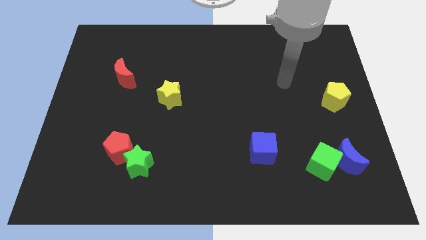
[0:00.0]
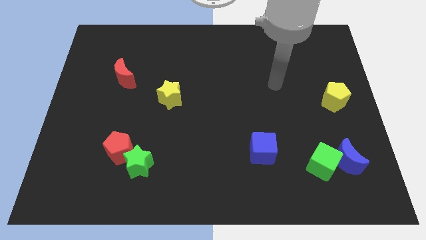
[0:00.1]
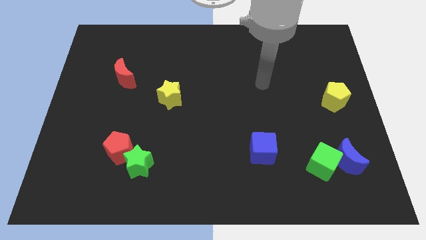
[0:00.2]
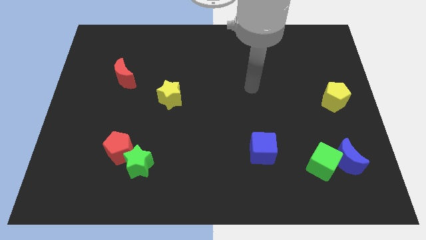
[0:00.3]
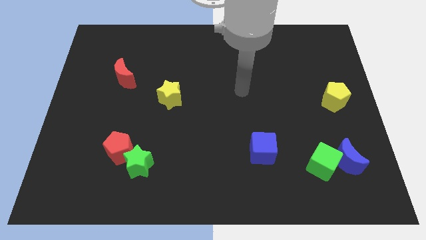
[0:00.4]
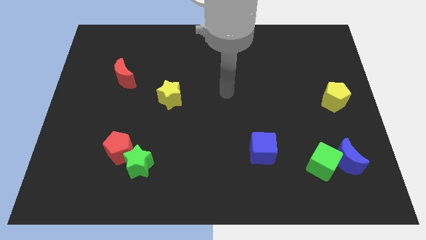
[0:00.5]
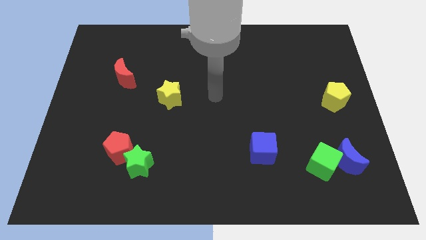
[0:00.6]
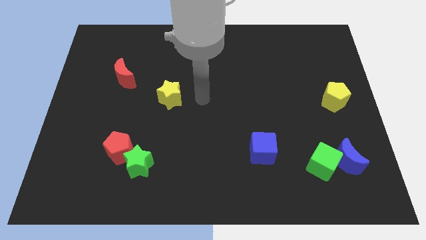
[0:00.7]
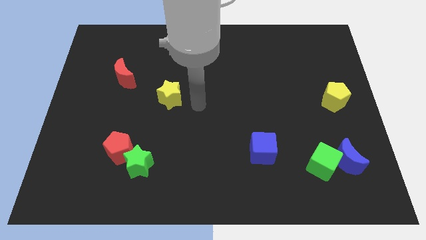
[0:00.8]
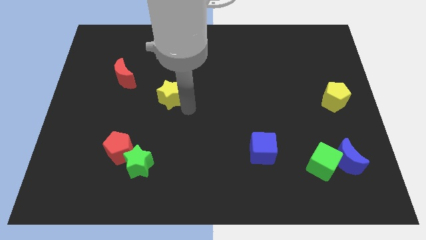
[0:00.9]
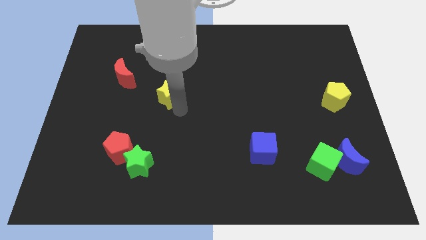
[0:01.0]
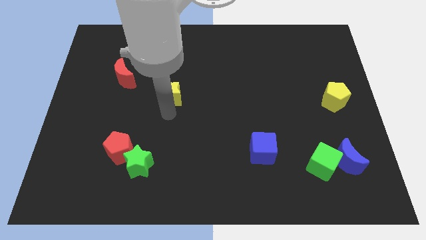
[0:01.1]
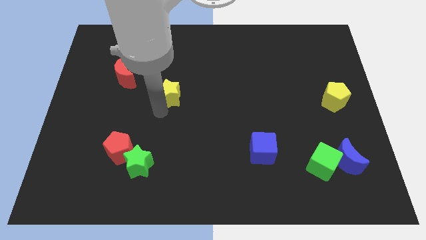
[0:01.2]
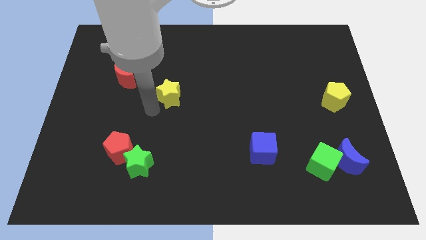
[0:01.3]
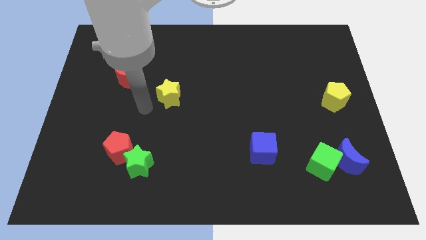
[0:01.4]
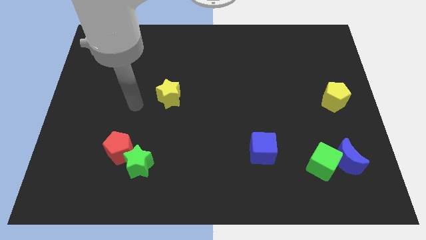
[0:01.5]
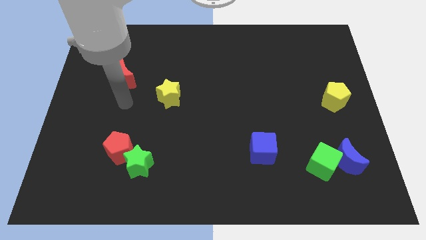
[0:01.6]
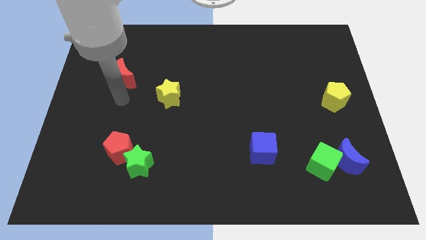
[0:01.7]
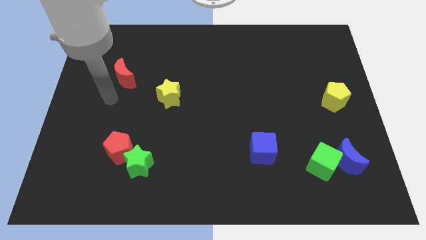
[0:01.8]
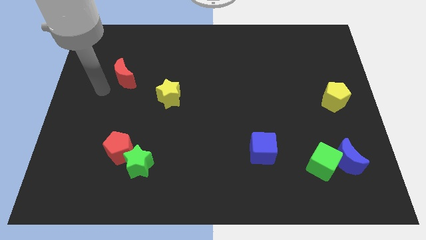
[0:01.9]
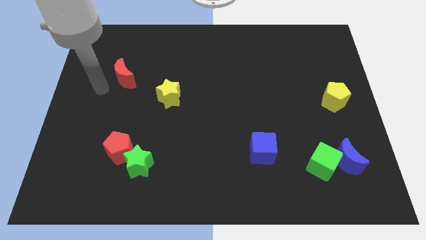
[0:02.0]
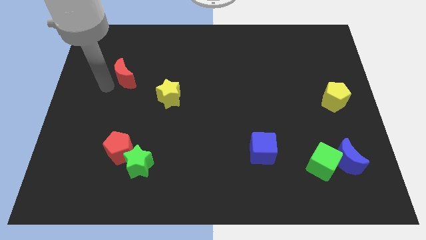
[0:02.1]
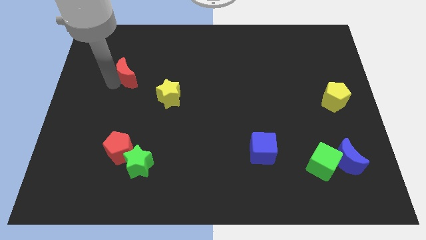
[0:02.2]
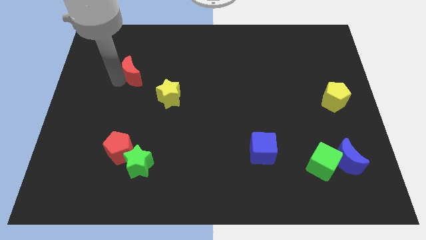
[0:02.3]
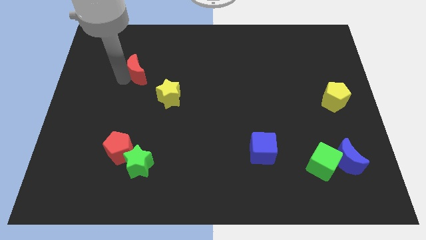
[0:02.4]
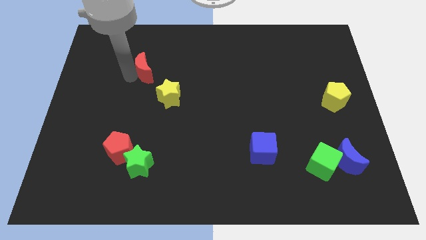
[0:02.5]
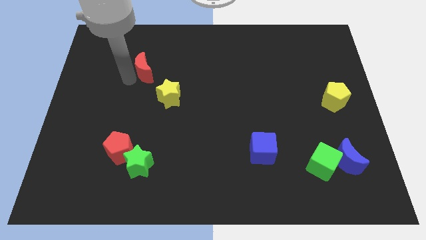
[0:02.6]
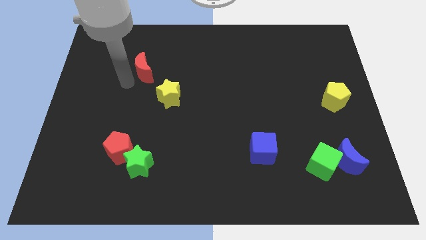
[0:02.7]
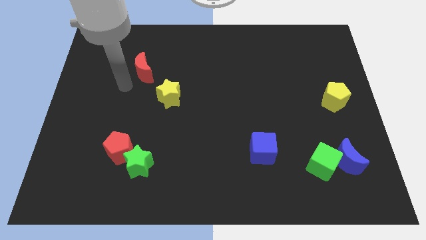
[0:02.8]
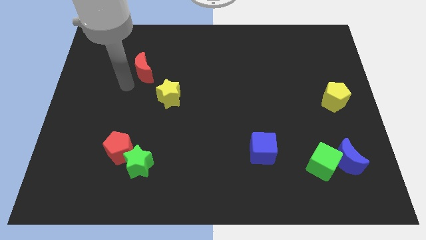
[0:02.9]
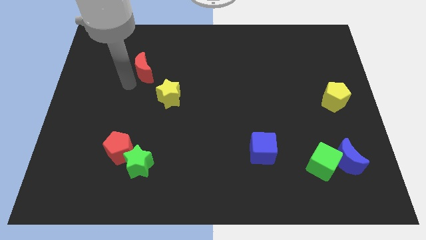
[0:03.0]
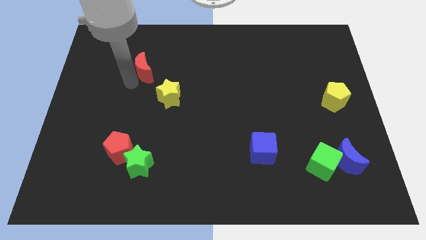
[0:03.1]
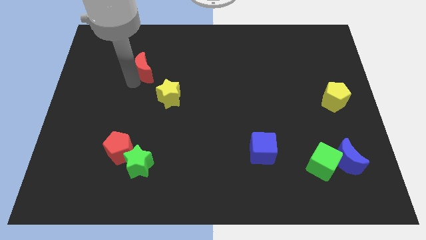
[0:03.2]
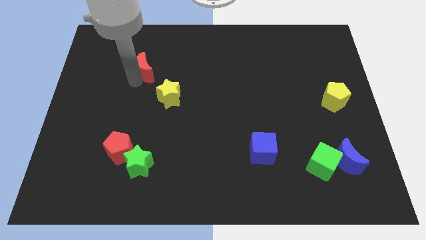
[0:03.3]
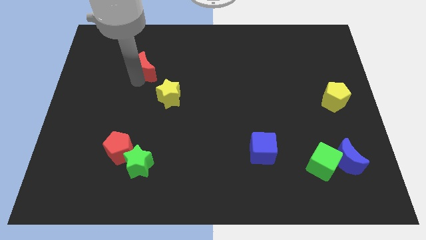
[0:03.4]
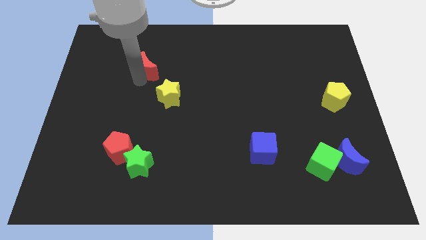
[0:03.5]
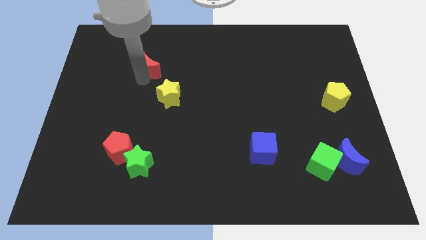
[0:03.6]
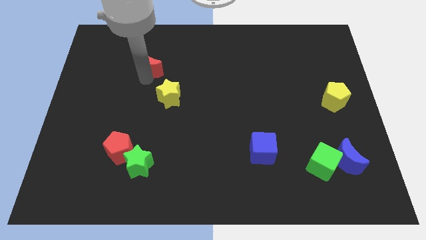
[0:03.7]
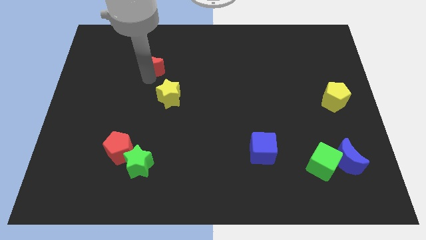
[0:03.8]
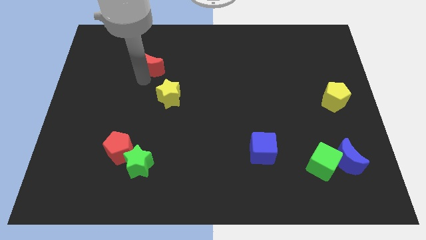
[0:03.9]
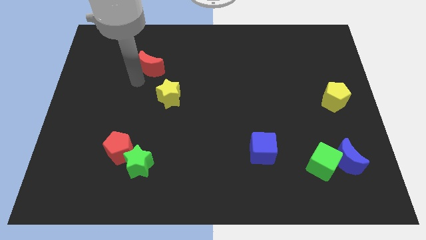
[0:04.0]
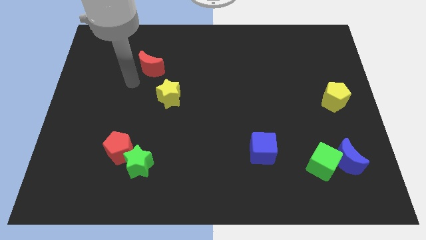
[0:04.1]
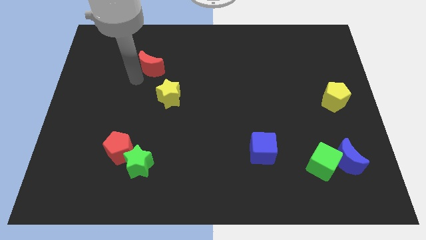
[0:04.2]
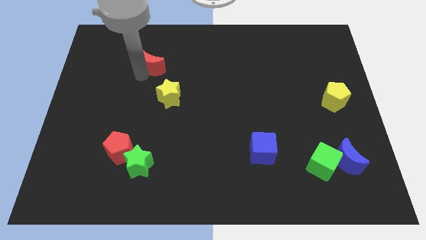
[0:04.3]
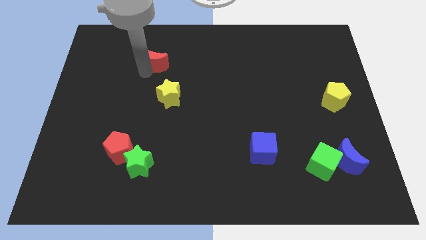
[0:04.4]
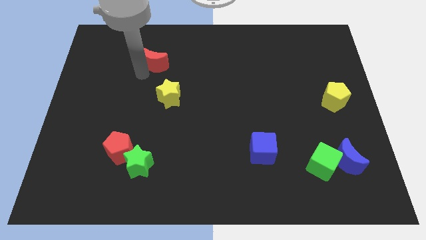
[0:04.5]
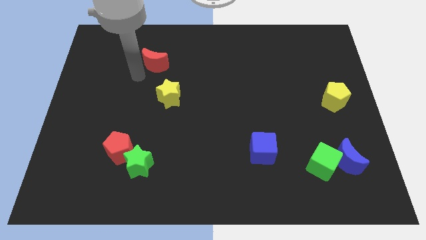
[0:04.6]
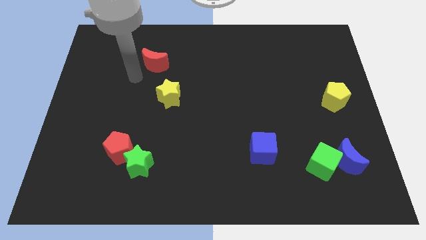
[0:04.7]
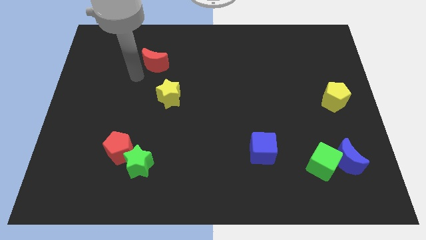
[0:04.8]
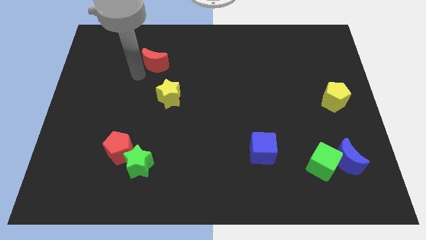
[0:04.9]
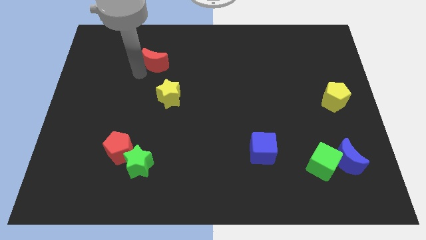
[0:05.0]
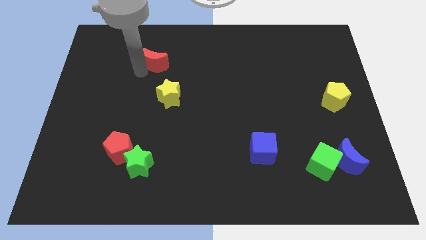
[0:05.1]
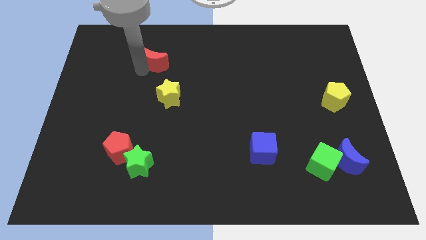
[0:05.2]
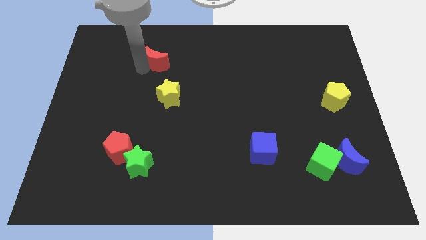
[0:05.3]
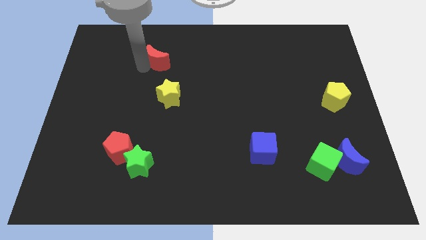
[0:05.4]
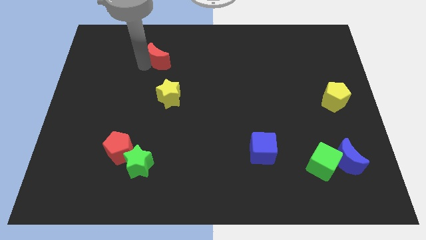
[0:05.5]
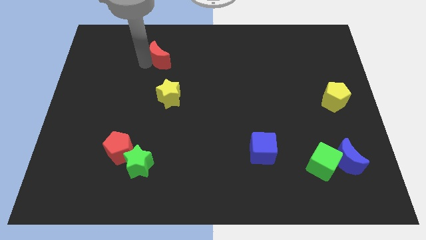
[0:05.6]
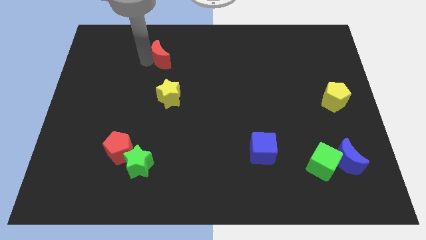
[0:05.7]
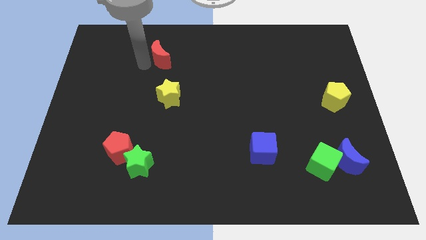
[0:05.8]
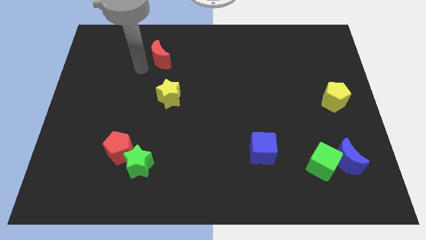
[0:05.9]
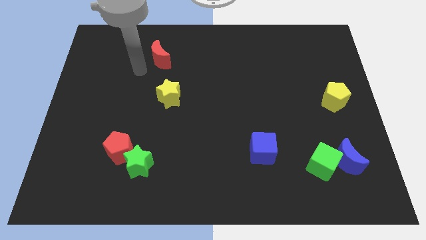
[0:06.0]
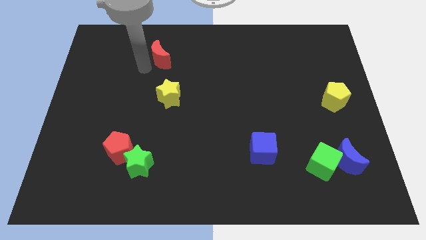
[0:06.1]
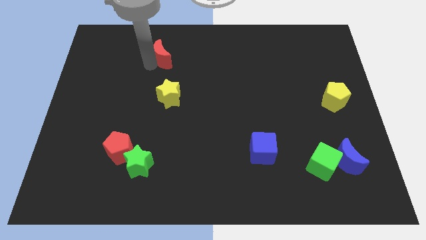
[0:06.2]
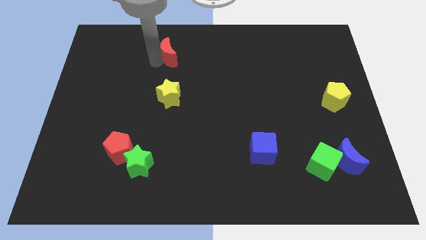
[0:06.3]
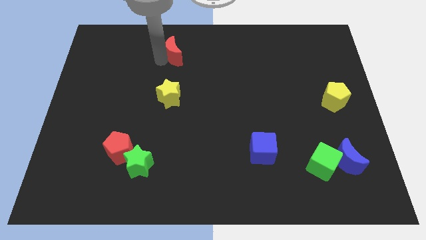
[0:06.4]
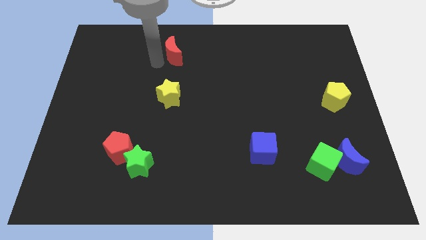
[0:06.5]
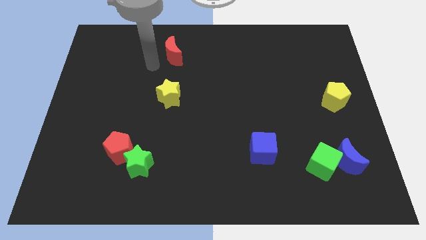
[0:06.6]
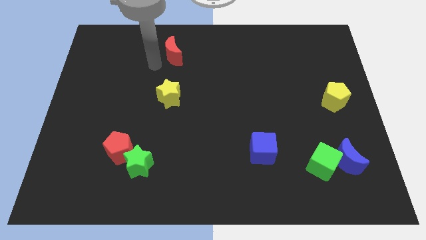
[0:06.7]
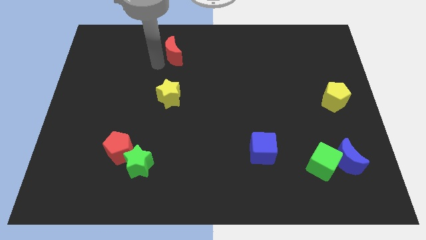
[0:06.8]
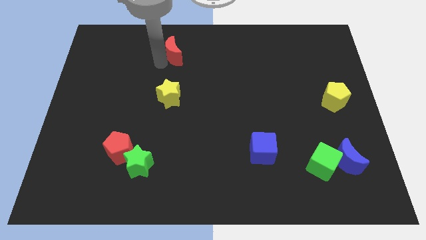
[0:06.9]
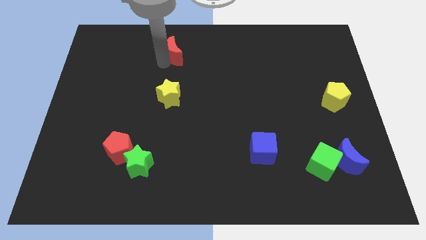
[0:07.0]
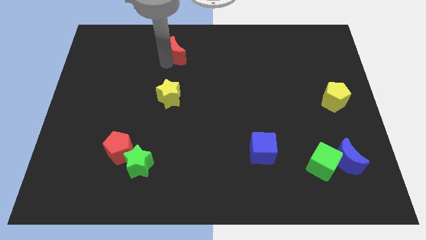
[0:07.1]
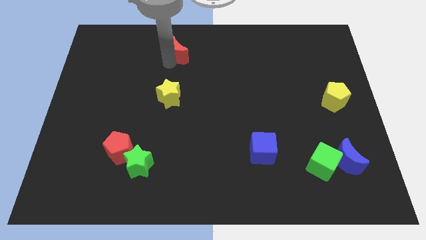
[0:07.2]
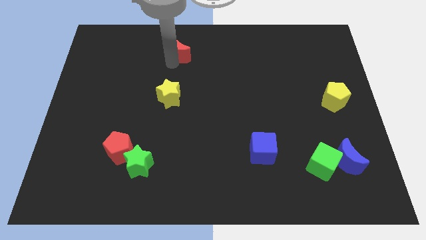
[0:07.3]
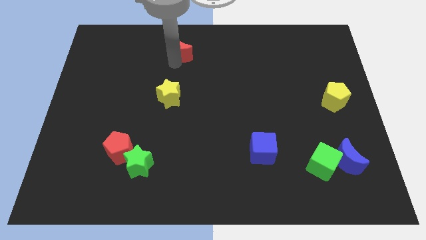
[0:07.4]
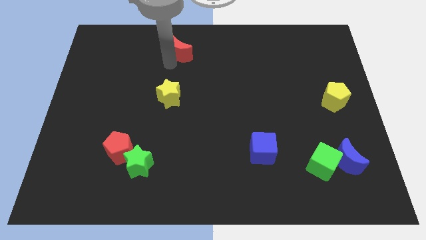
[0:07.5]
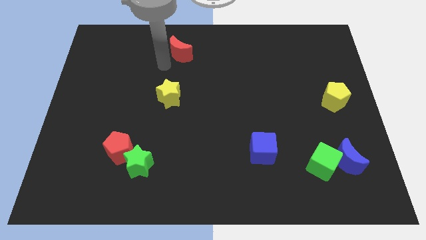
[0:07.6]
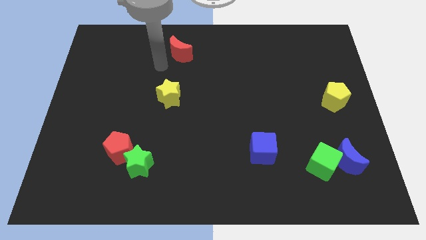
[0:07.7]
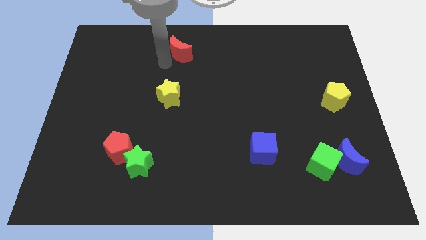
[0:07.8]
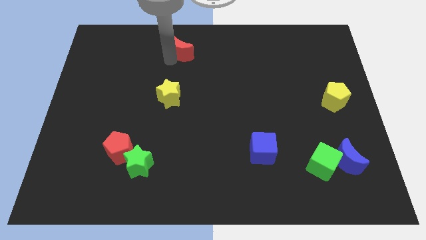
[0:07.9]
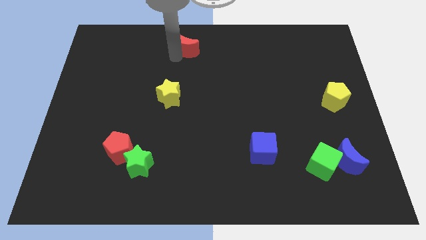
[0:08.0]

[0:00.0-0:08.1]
push the red moon to the top
